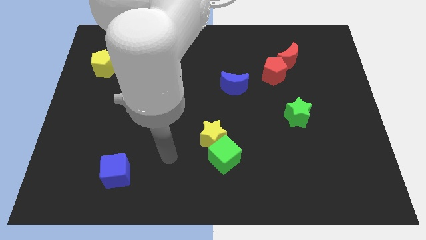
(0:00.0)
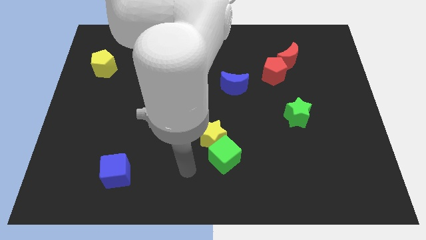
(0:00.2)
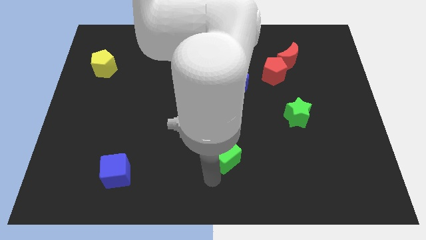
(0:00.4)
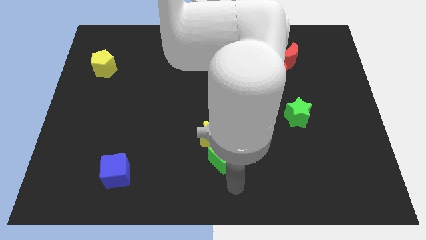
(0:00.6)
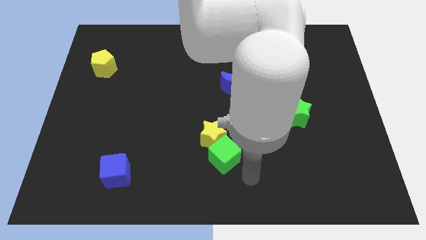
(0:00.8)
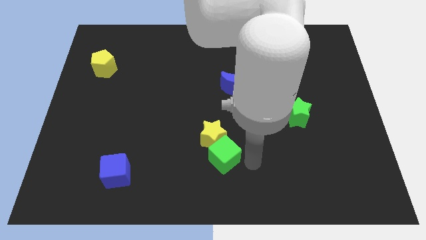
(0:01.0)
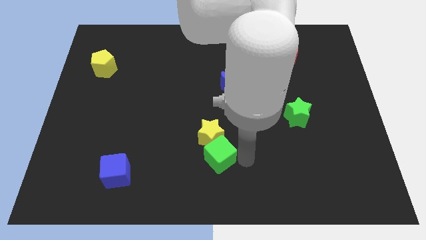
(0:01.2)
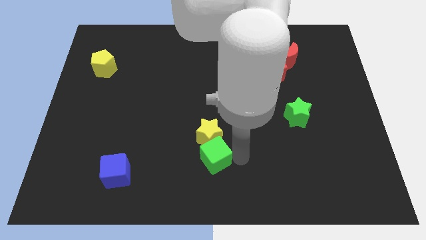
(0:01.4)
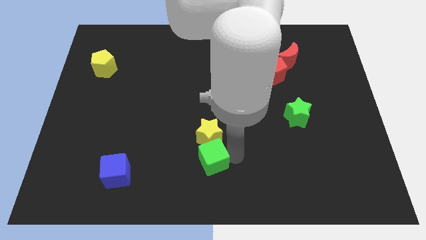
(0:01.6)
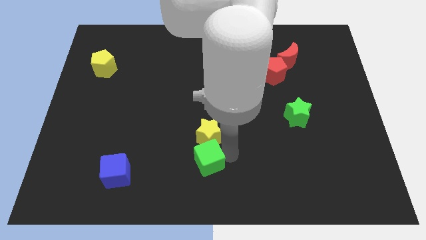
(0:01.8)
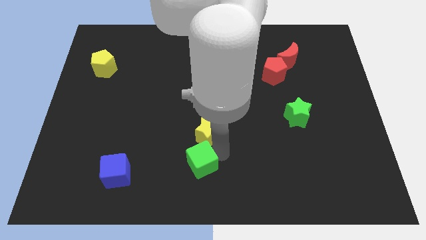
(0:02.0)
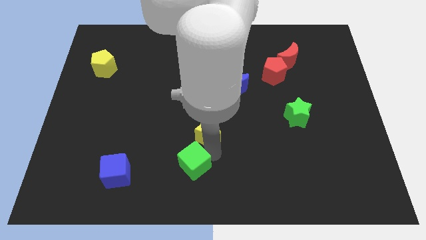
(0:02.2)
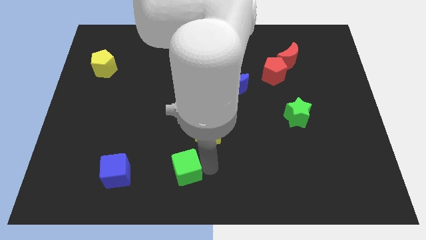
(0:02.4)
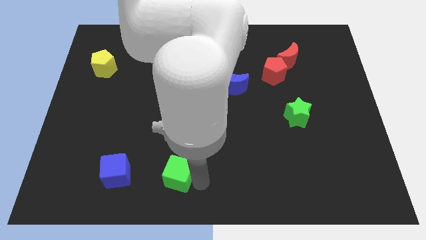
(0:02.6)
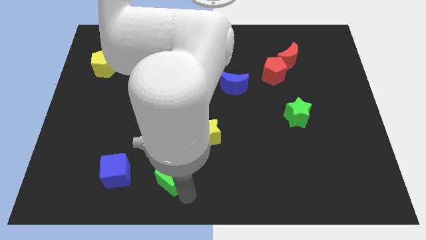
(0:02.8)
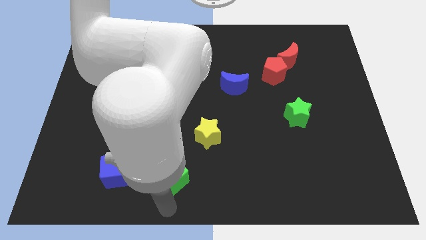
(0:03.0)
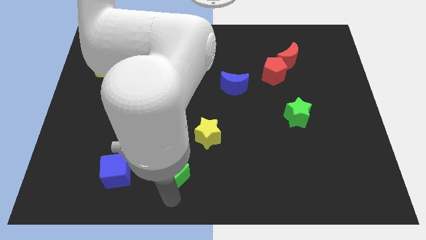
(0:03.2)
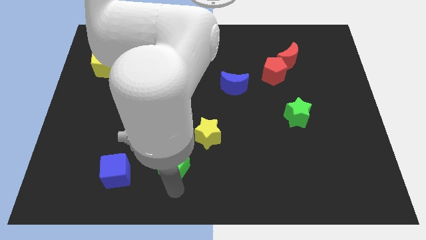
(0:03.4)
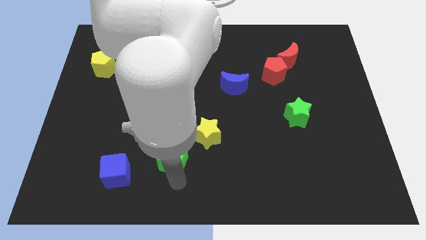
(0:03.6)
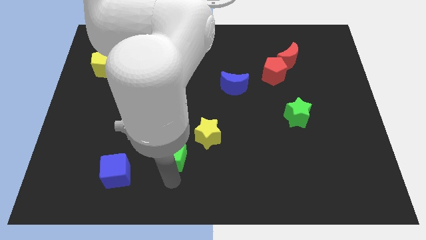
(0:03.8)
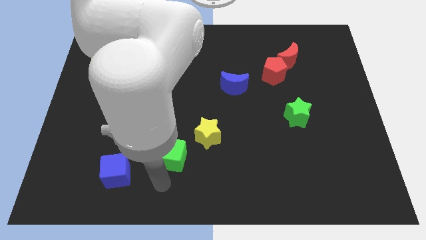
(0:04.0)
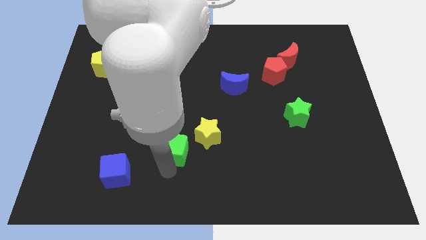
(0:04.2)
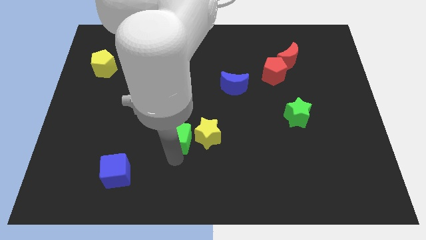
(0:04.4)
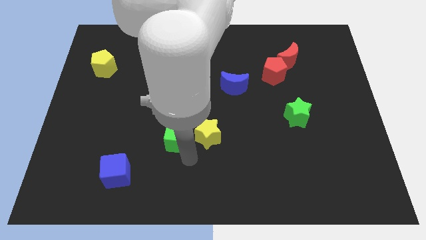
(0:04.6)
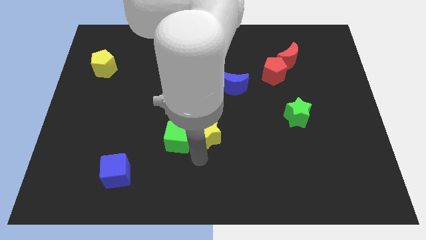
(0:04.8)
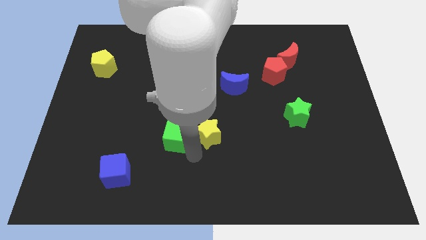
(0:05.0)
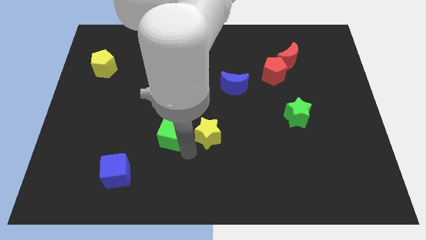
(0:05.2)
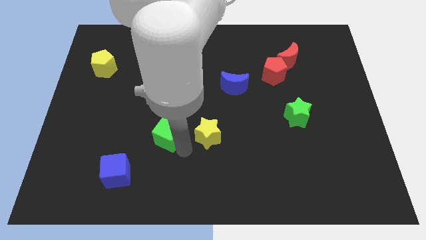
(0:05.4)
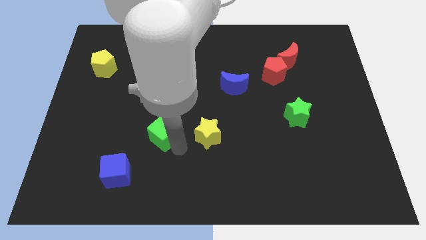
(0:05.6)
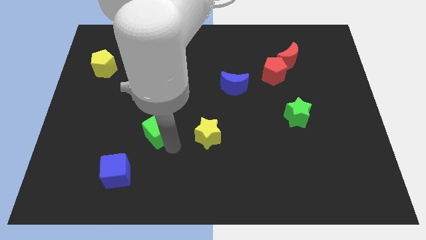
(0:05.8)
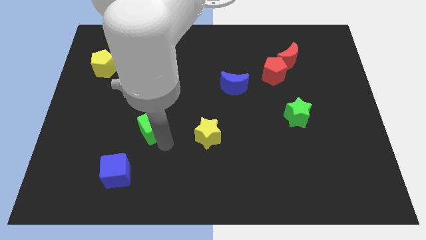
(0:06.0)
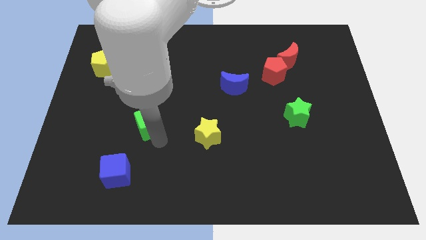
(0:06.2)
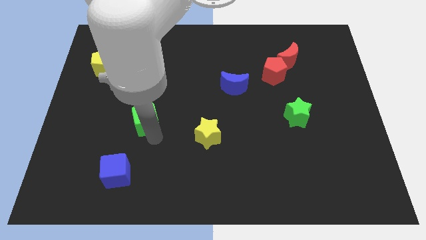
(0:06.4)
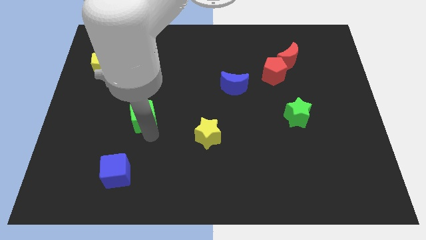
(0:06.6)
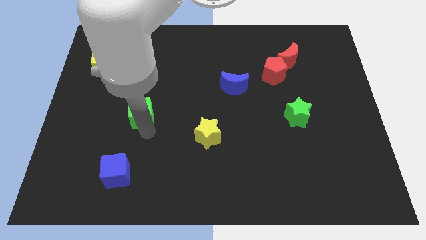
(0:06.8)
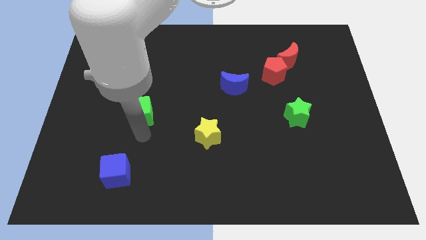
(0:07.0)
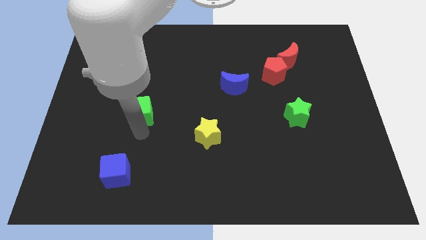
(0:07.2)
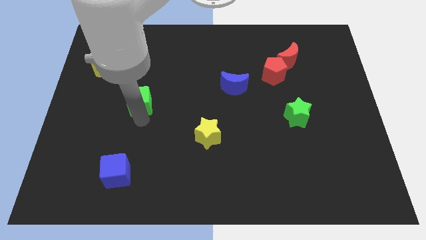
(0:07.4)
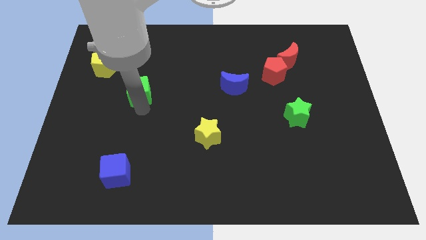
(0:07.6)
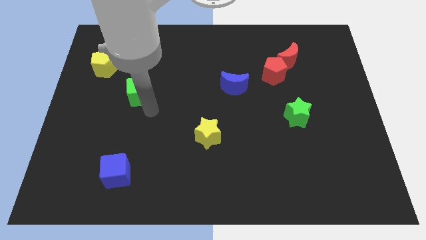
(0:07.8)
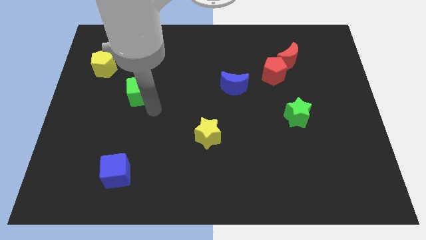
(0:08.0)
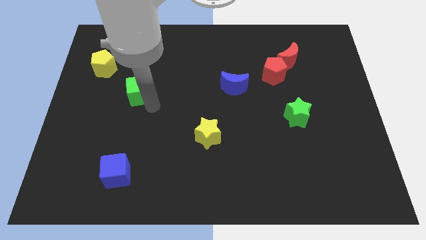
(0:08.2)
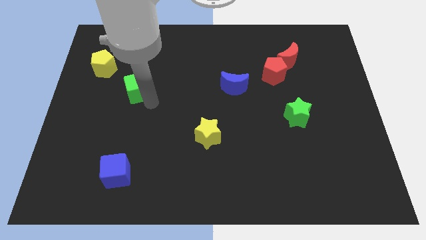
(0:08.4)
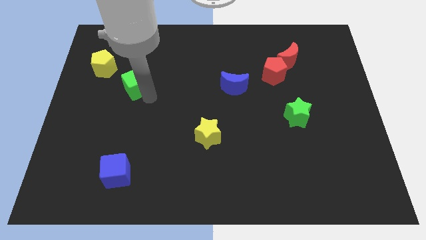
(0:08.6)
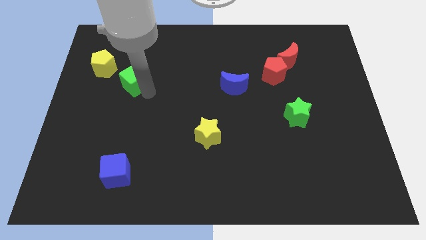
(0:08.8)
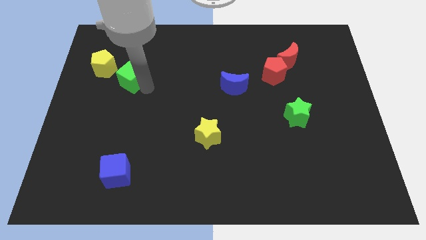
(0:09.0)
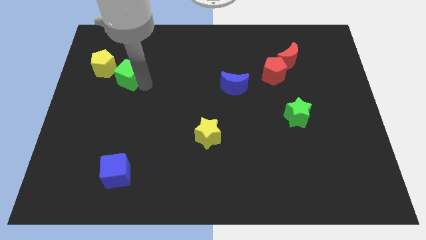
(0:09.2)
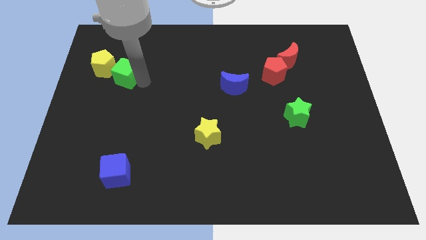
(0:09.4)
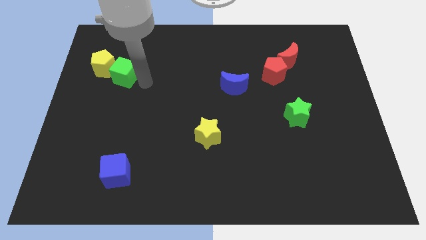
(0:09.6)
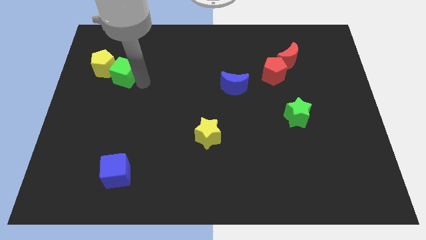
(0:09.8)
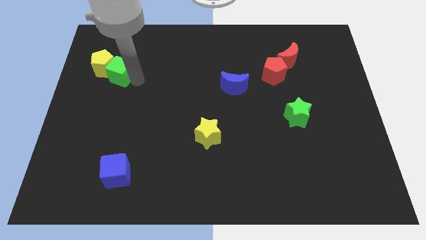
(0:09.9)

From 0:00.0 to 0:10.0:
move the green cube towards the yellow pentagon

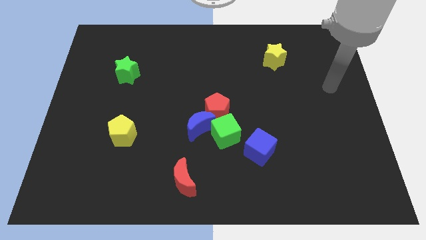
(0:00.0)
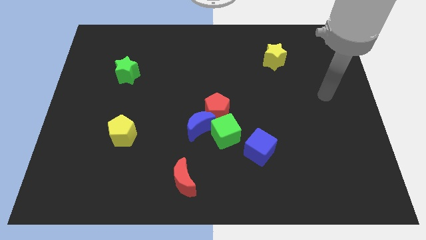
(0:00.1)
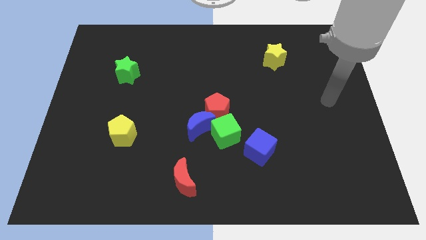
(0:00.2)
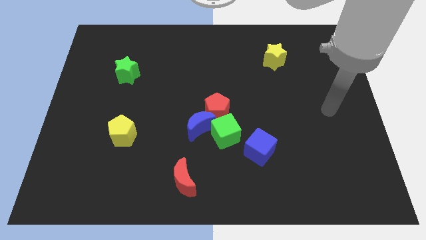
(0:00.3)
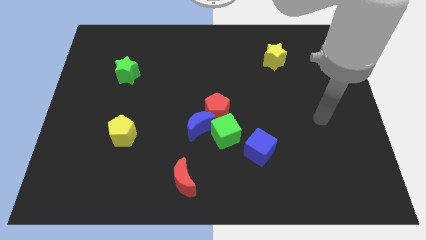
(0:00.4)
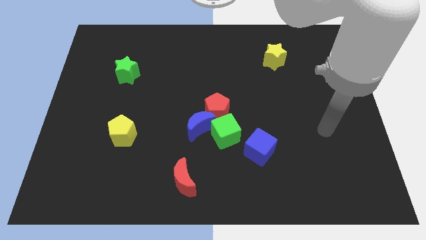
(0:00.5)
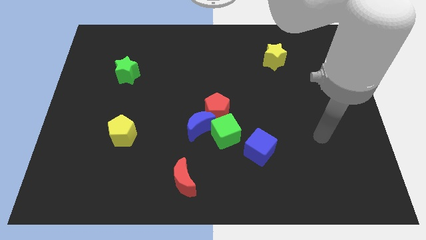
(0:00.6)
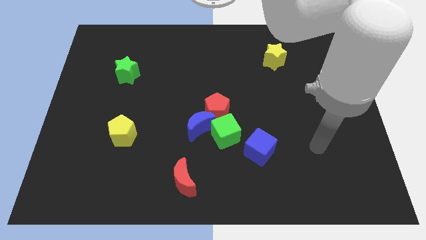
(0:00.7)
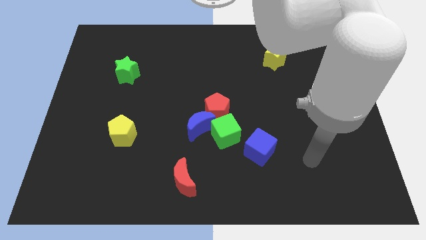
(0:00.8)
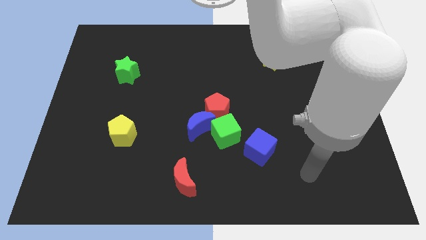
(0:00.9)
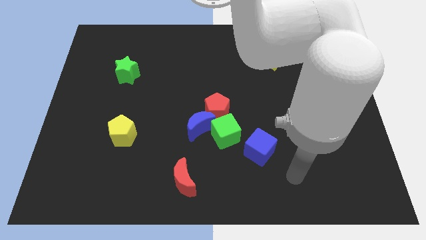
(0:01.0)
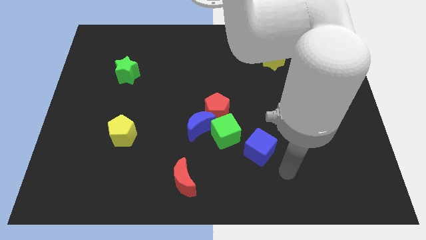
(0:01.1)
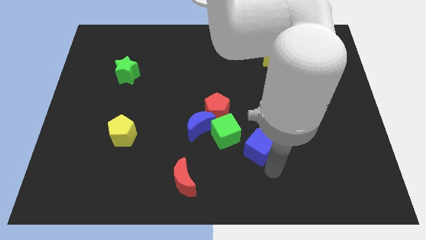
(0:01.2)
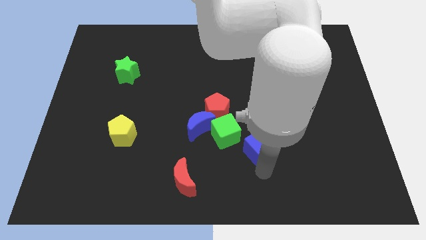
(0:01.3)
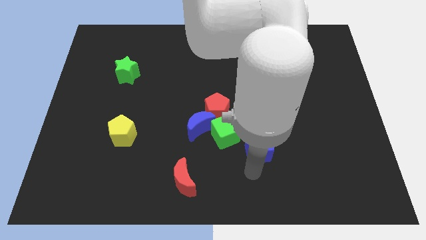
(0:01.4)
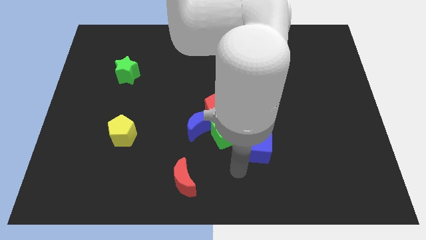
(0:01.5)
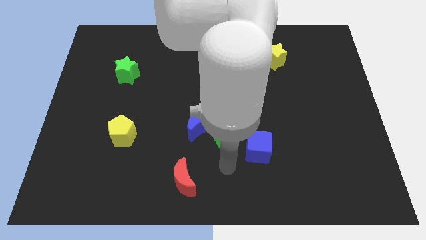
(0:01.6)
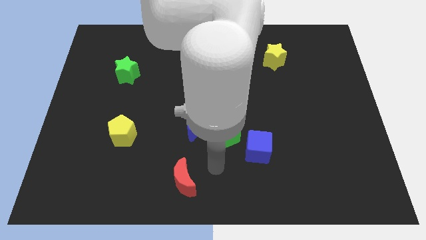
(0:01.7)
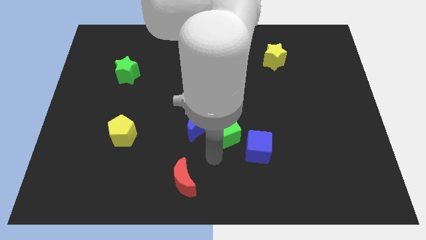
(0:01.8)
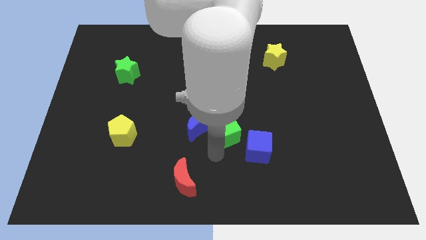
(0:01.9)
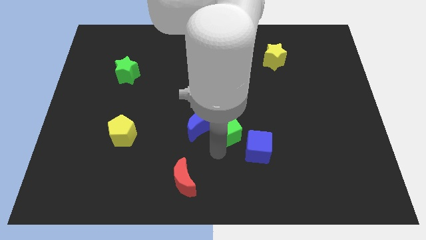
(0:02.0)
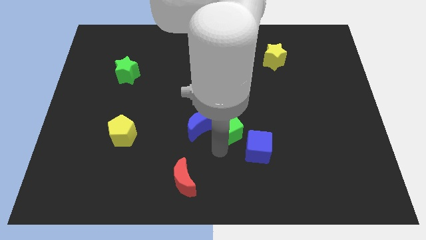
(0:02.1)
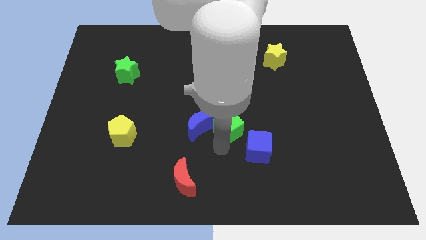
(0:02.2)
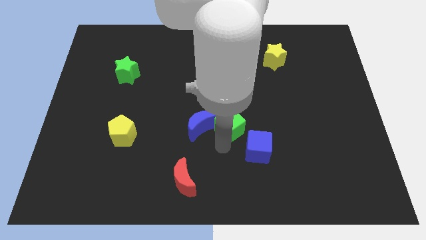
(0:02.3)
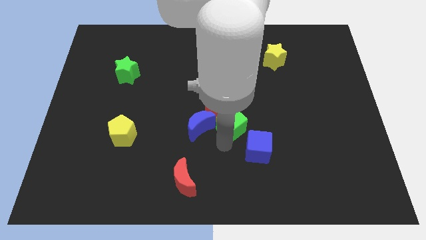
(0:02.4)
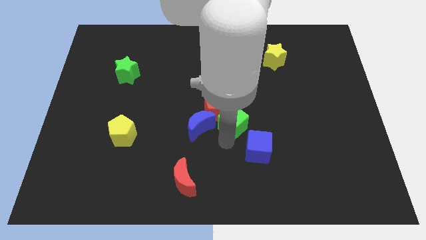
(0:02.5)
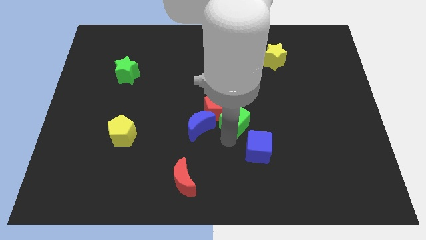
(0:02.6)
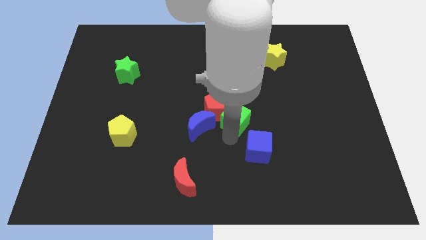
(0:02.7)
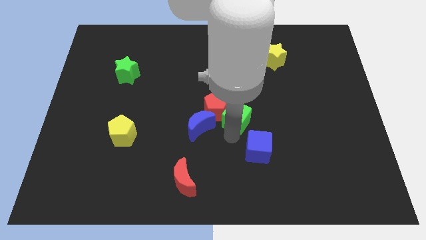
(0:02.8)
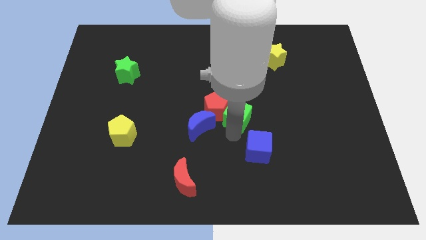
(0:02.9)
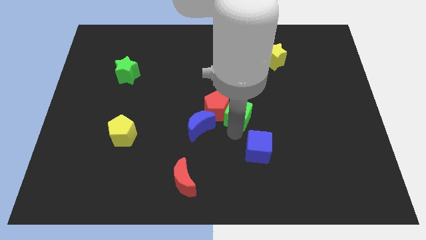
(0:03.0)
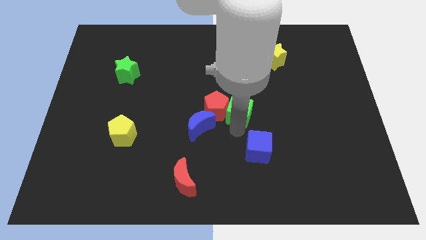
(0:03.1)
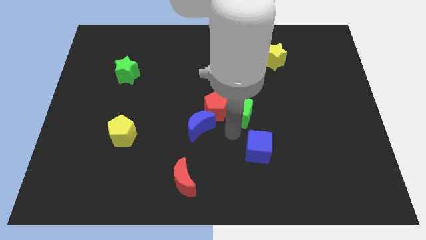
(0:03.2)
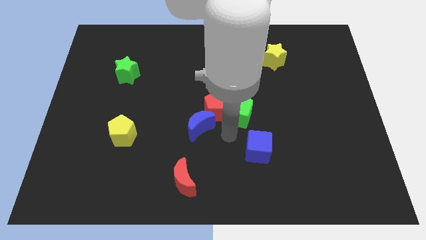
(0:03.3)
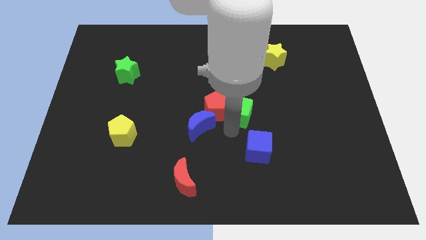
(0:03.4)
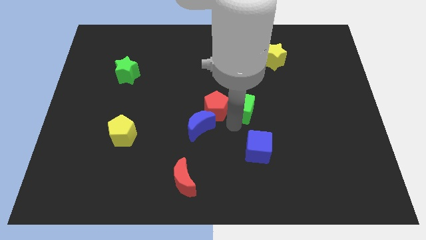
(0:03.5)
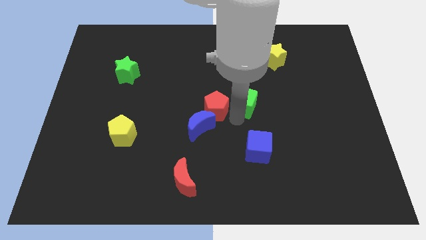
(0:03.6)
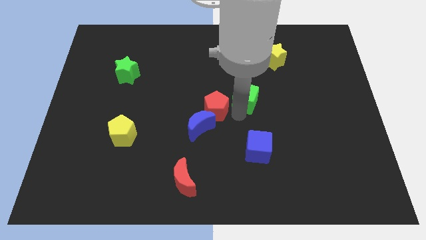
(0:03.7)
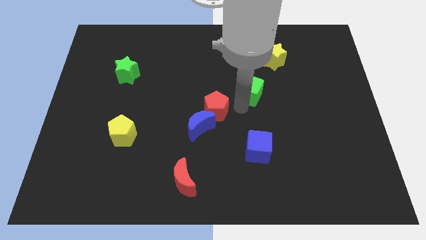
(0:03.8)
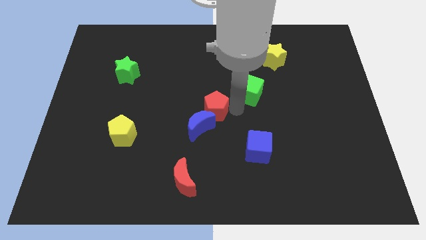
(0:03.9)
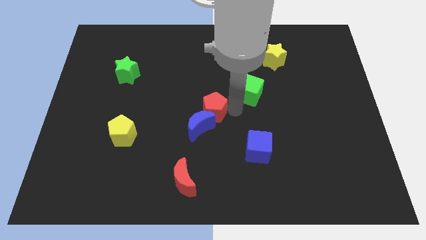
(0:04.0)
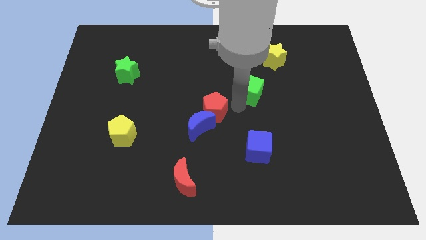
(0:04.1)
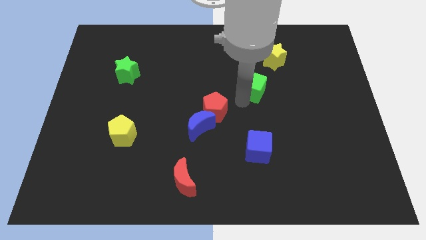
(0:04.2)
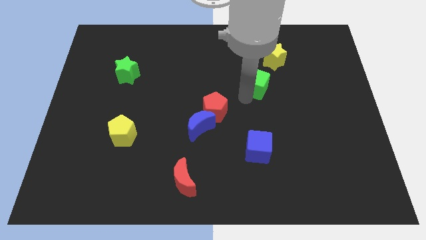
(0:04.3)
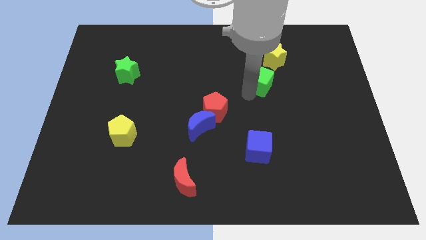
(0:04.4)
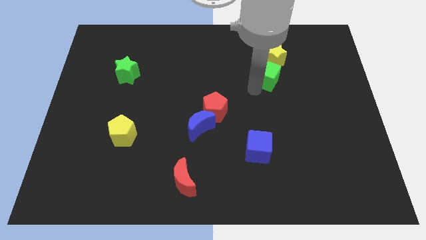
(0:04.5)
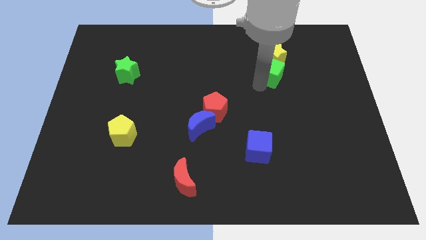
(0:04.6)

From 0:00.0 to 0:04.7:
push the green cube to the yellow star
